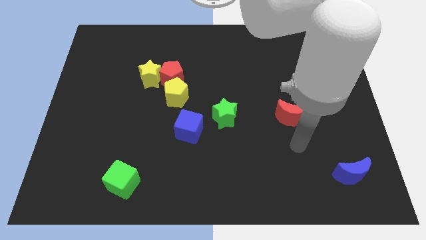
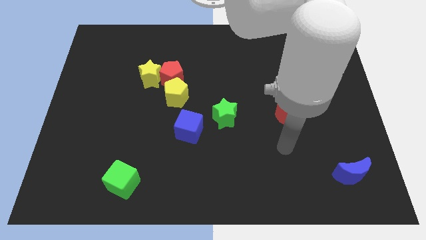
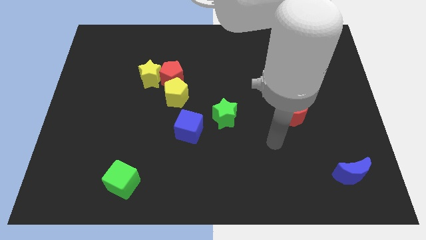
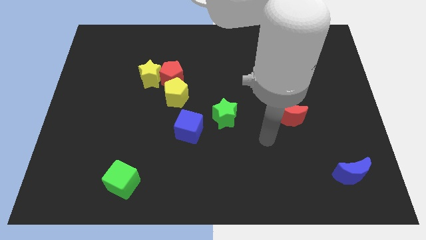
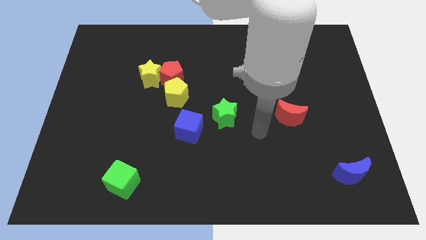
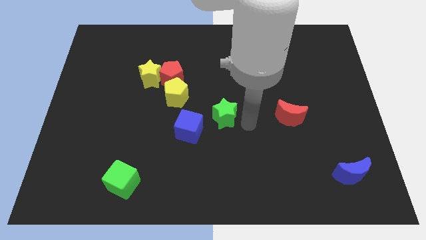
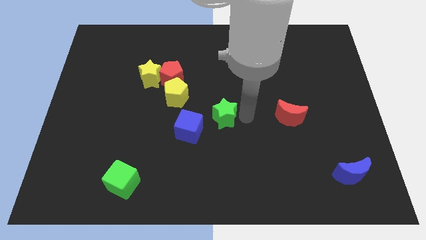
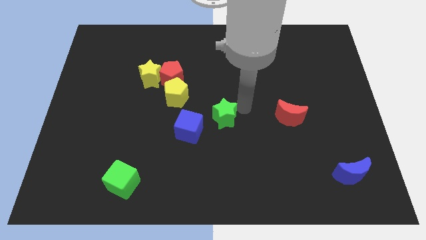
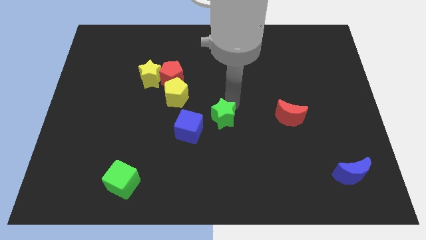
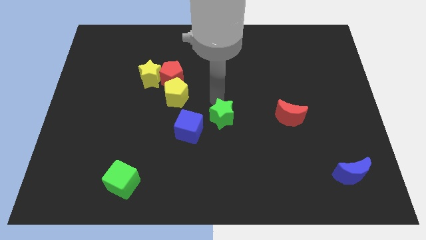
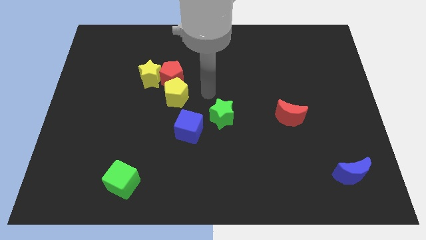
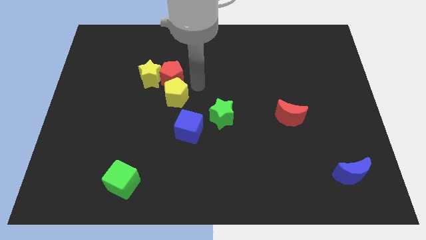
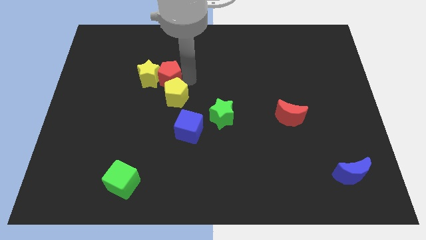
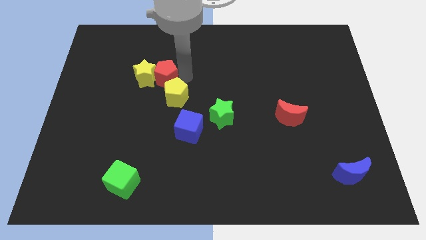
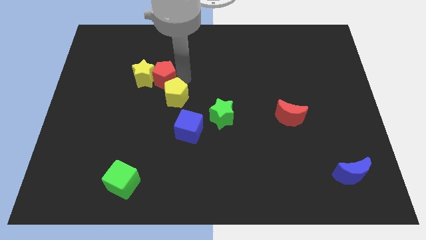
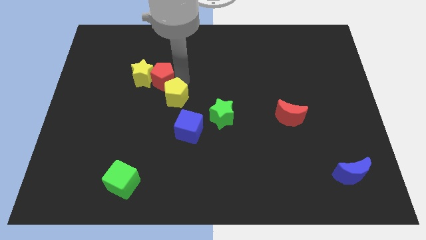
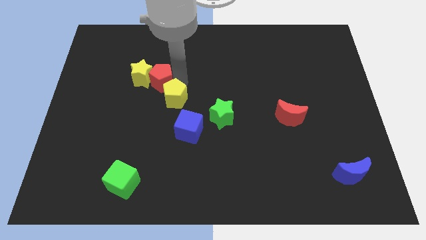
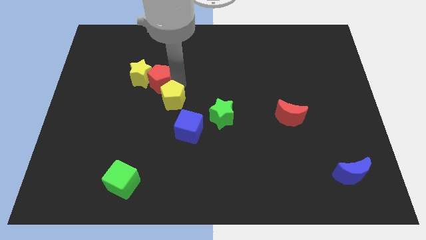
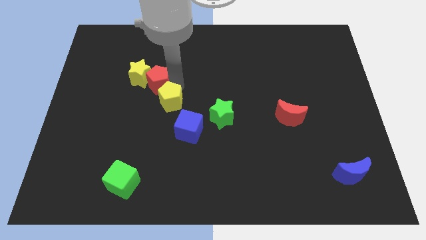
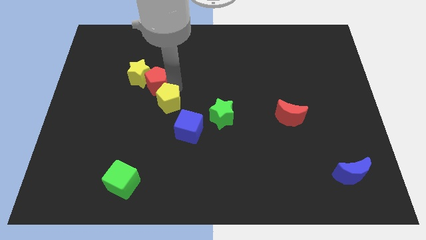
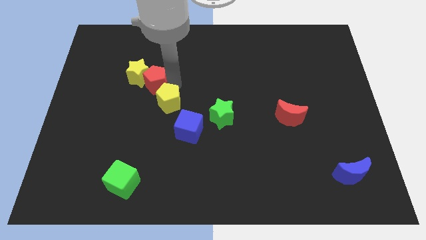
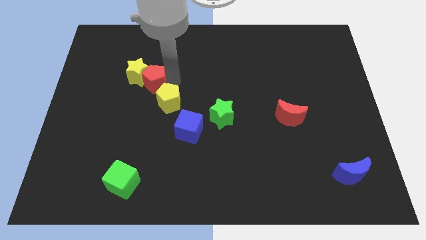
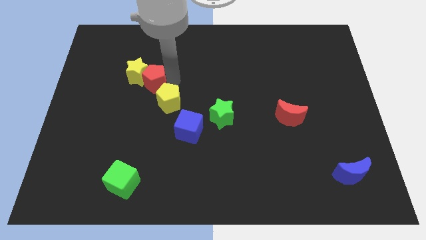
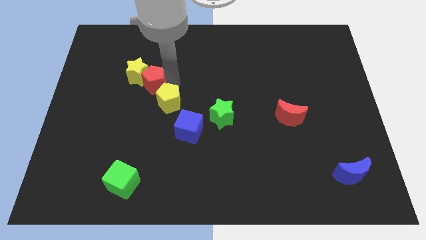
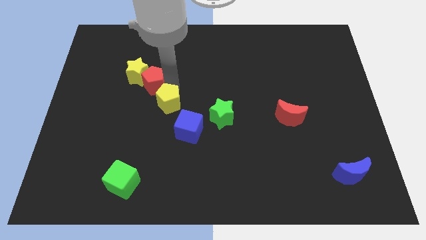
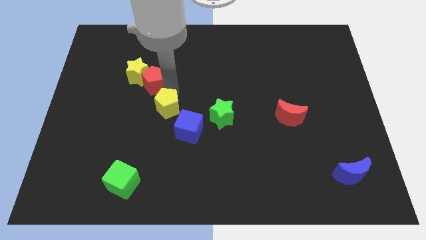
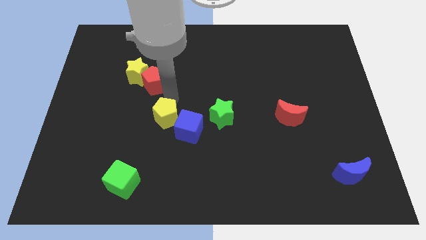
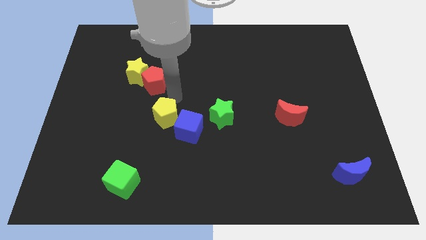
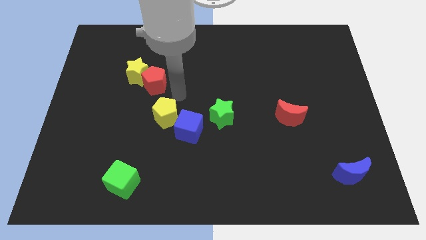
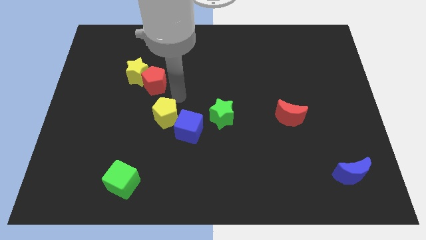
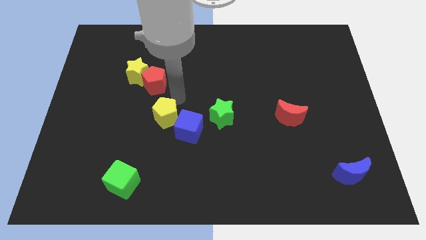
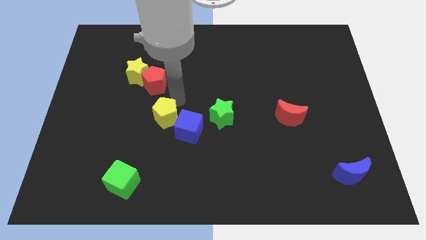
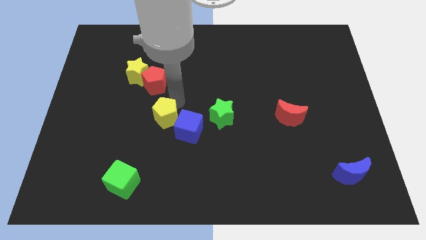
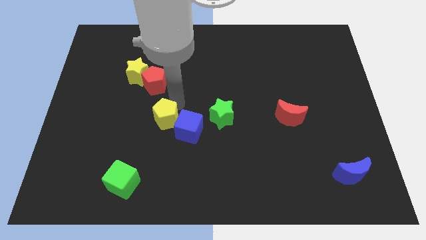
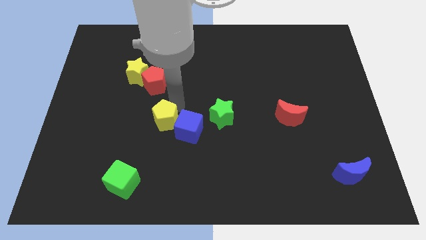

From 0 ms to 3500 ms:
slightly slide the yellow pentagon downwards

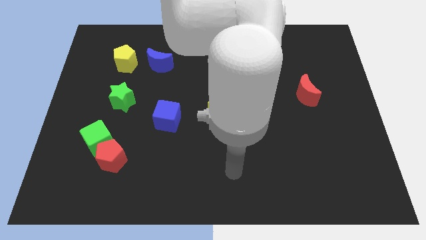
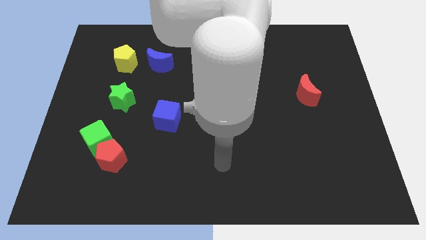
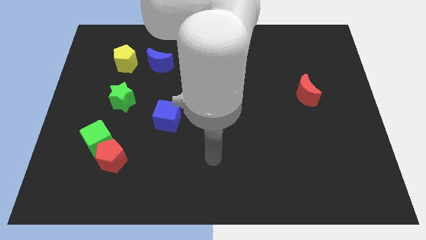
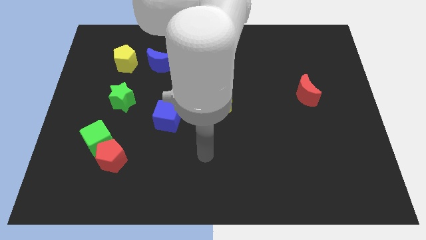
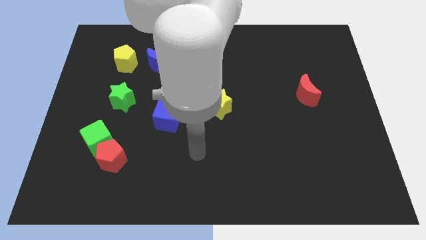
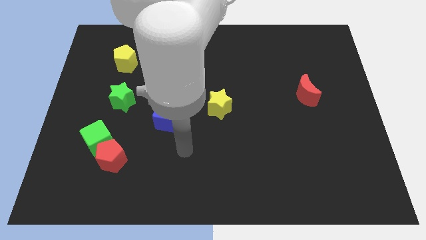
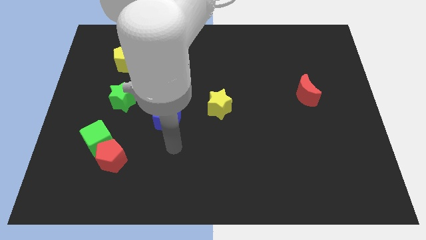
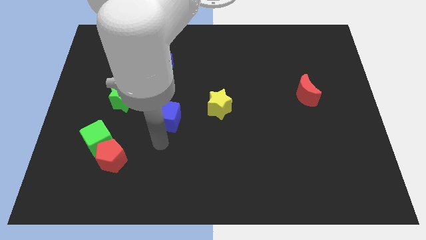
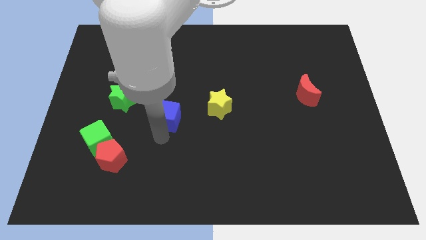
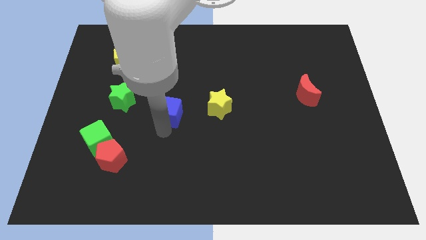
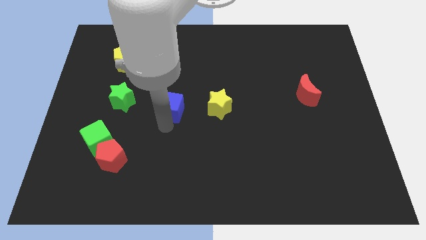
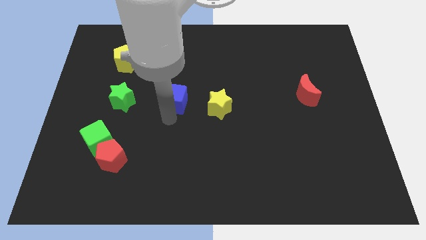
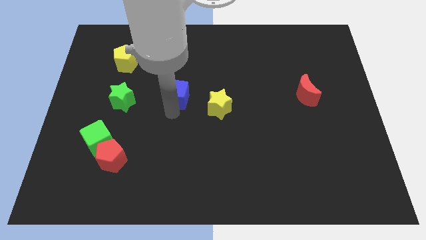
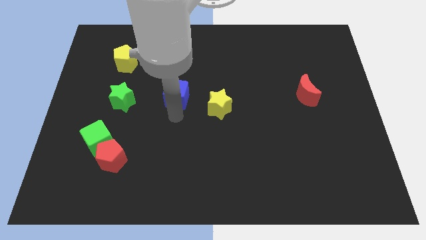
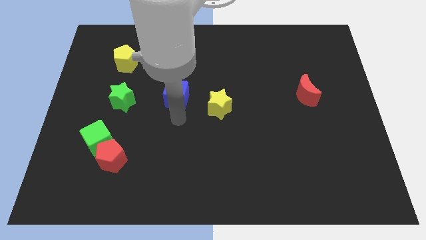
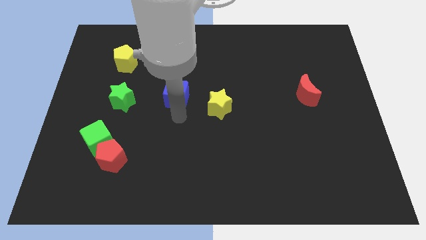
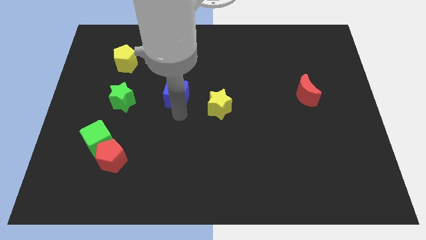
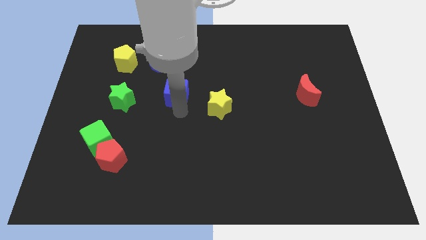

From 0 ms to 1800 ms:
slightly push the blue cube upwards

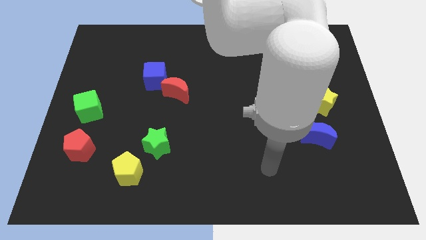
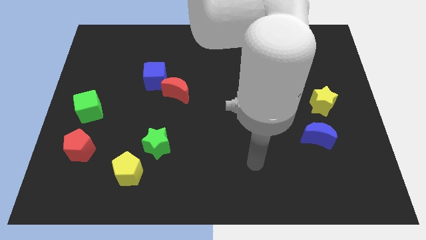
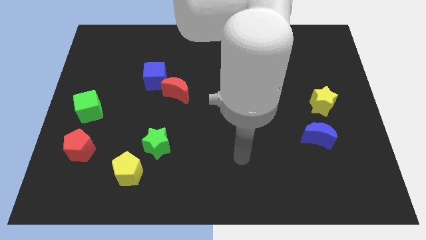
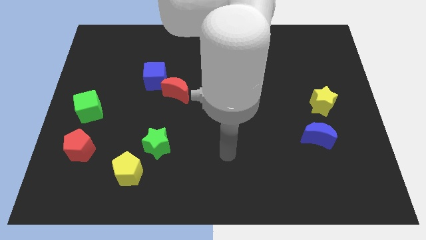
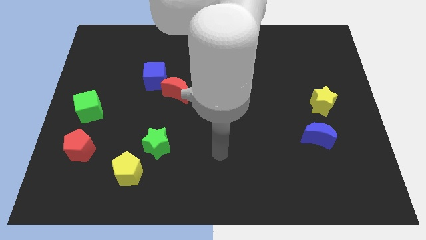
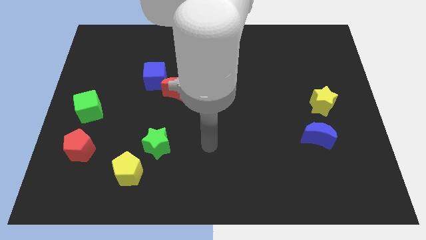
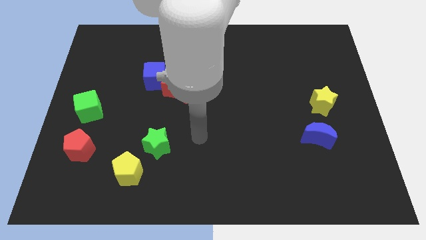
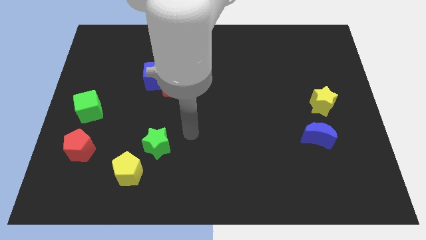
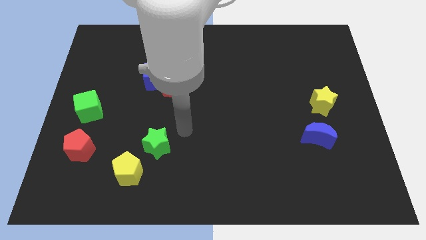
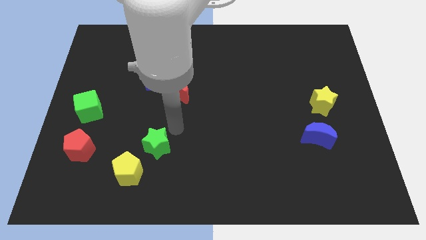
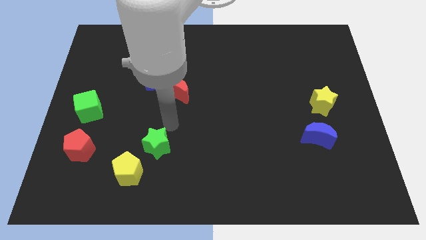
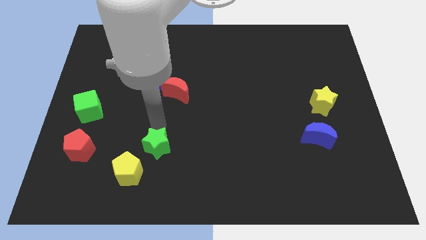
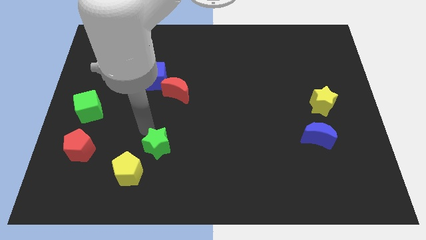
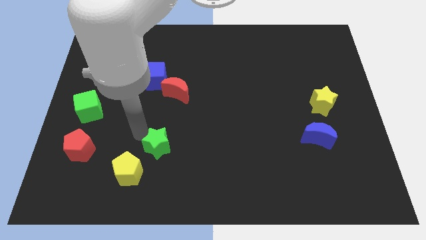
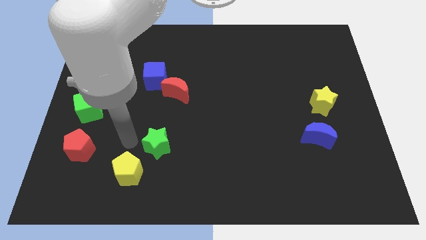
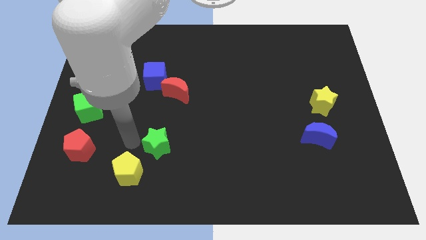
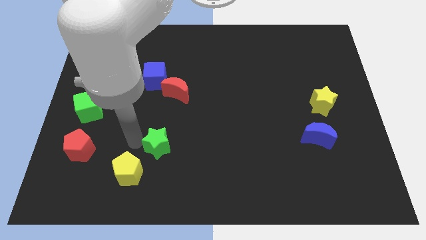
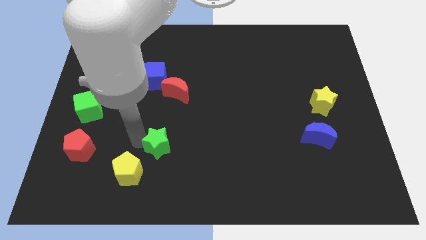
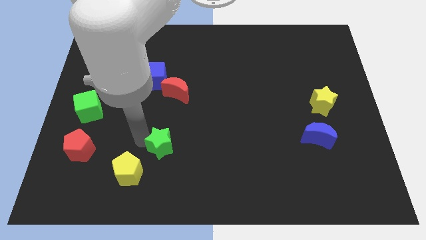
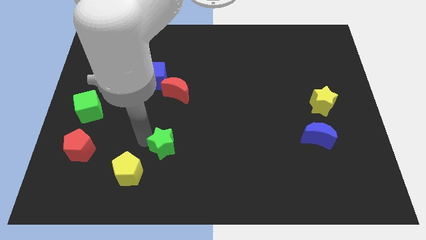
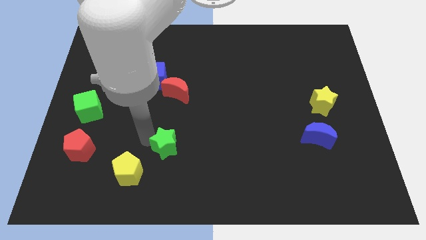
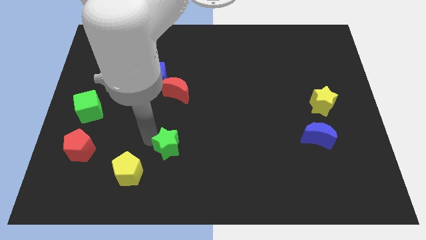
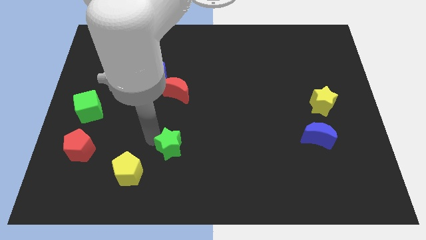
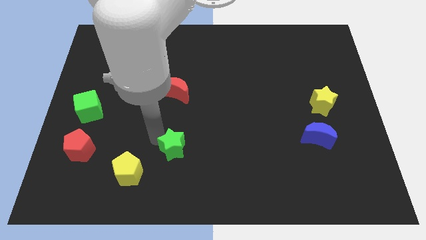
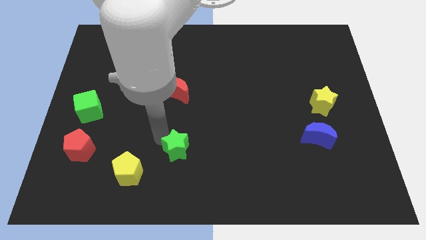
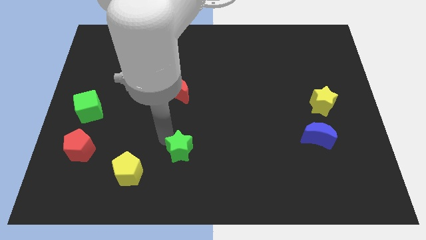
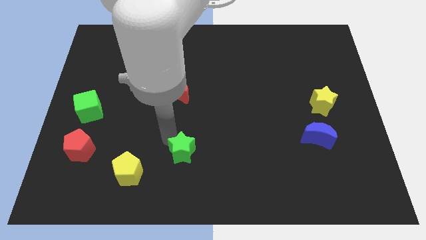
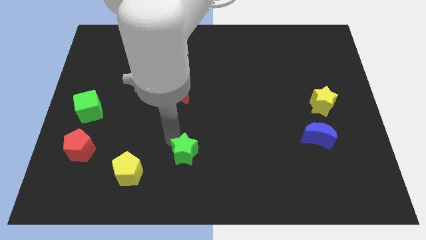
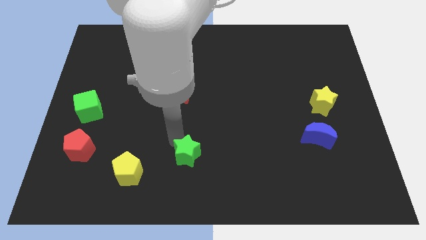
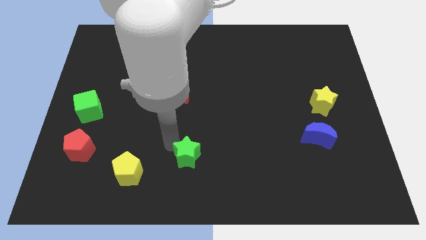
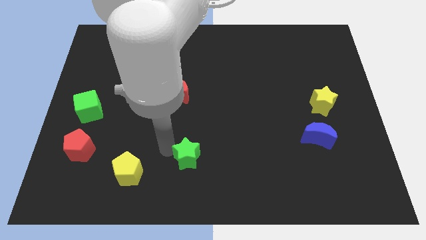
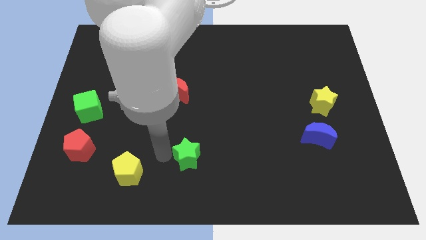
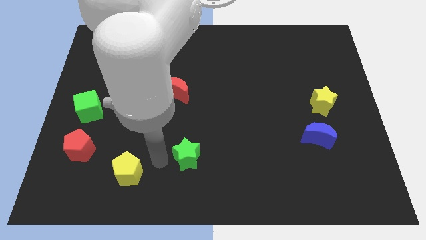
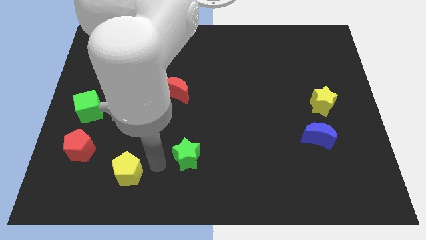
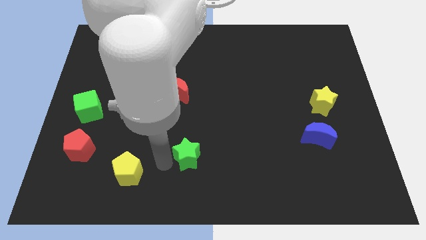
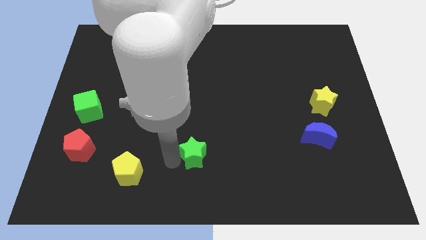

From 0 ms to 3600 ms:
slightly push the green star right

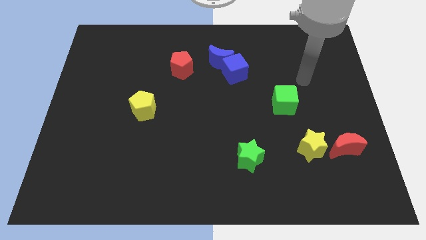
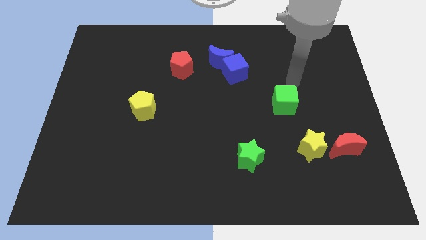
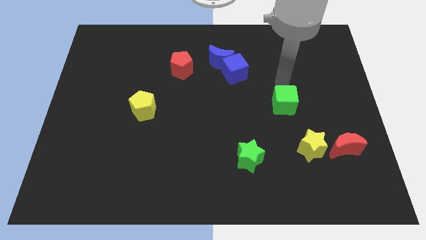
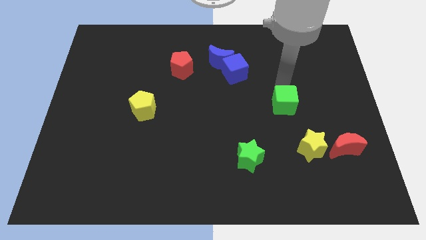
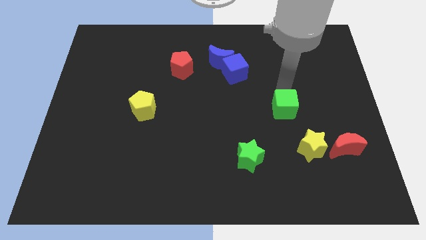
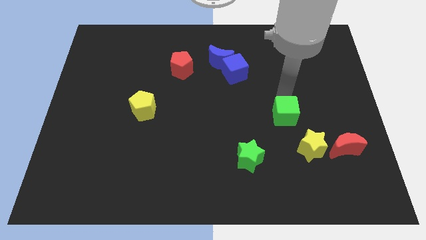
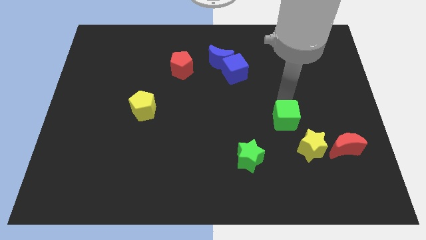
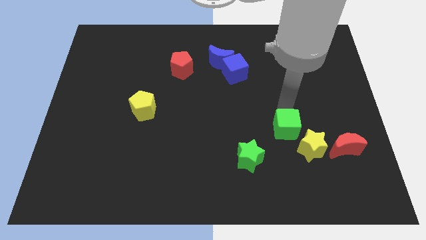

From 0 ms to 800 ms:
slide the green cube a little downwards
